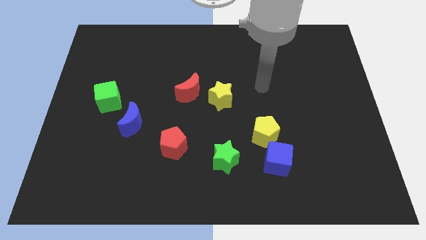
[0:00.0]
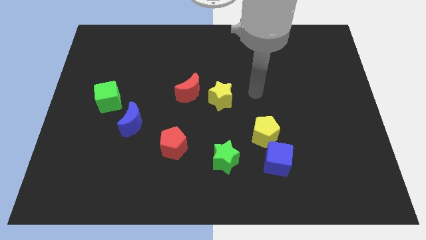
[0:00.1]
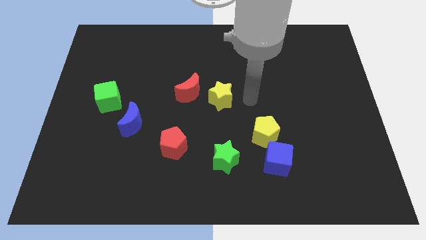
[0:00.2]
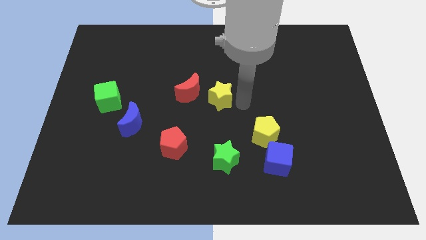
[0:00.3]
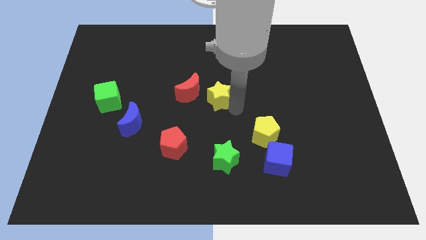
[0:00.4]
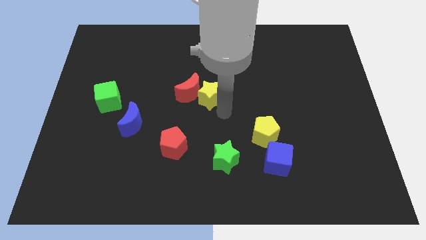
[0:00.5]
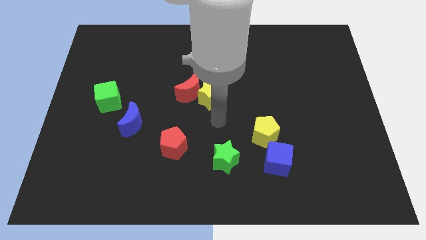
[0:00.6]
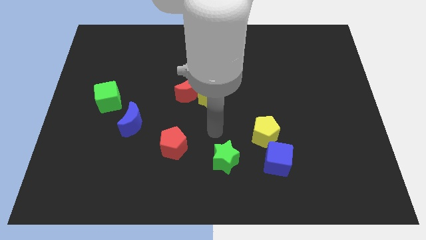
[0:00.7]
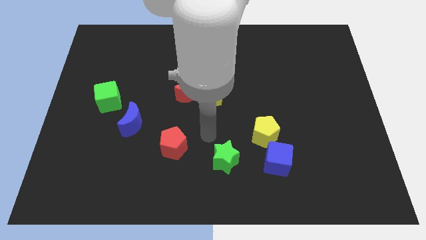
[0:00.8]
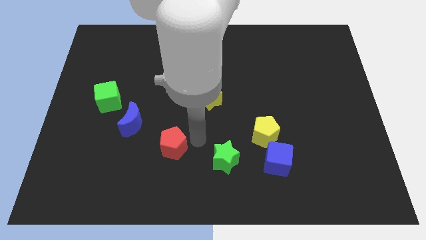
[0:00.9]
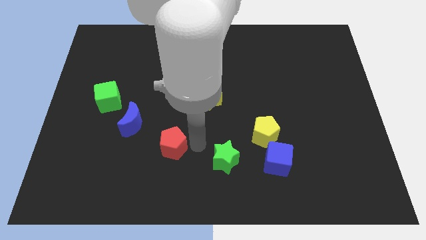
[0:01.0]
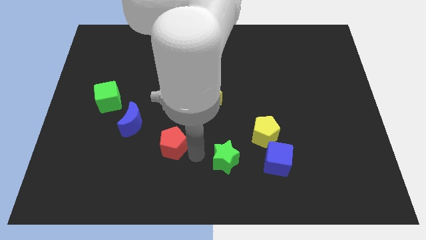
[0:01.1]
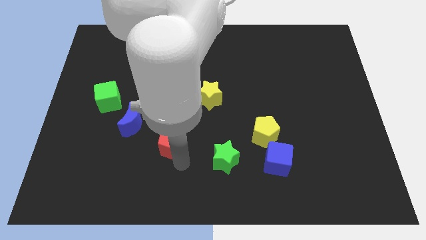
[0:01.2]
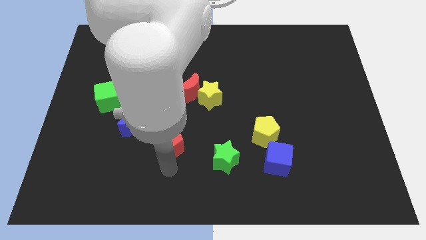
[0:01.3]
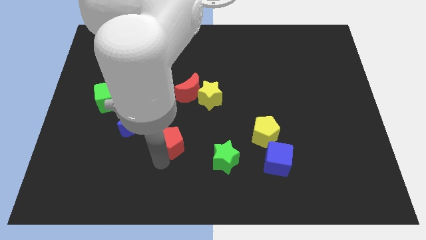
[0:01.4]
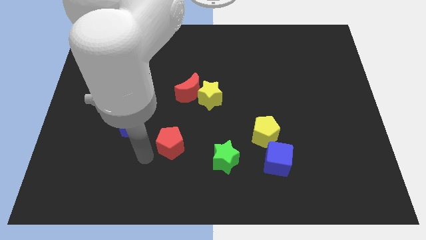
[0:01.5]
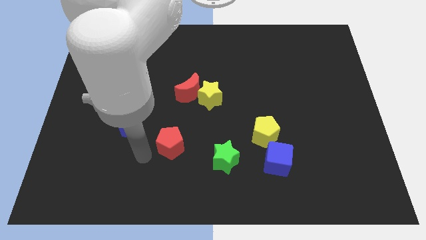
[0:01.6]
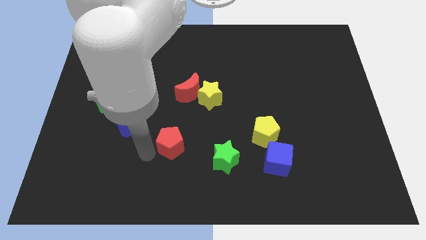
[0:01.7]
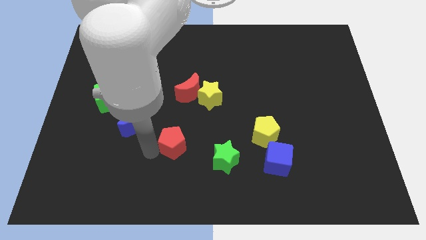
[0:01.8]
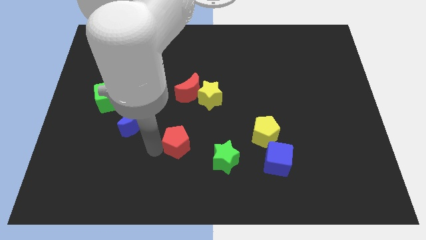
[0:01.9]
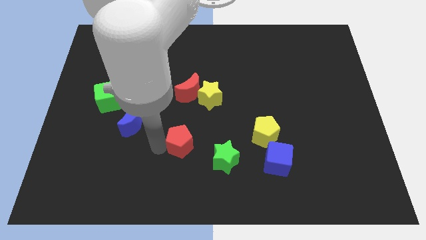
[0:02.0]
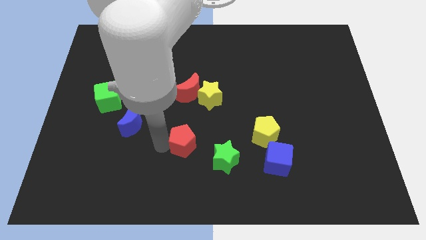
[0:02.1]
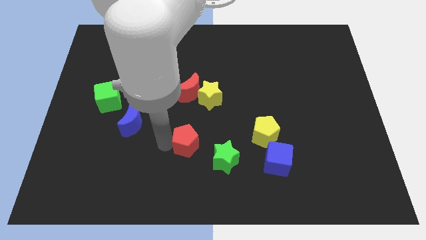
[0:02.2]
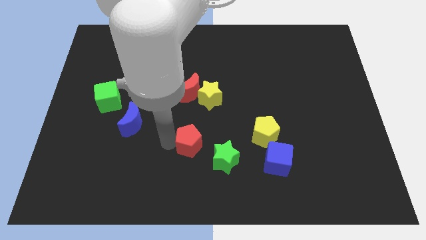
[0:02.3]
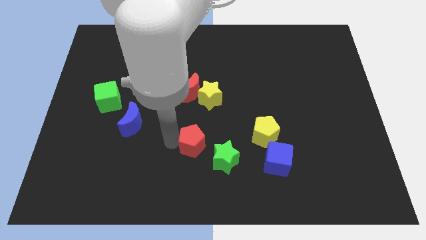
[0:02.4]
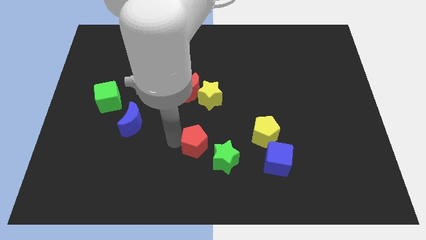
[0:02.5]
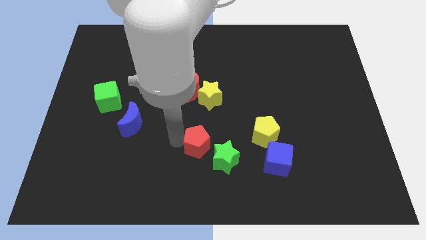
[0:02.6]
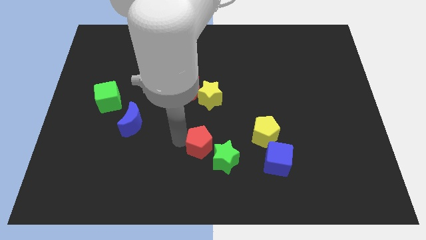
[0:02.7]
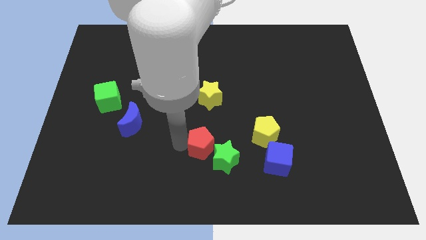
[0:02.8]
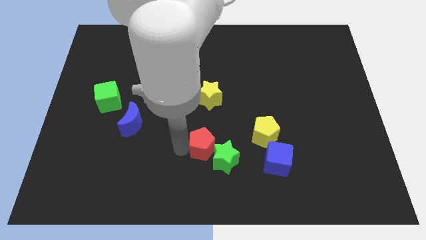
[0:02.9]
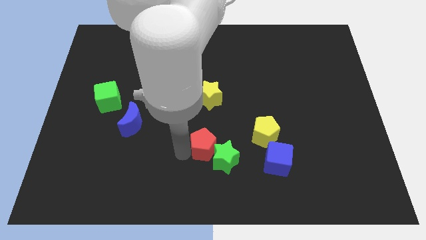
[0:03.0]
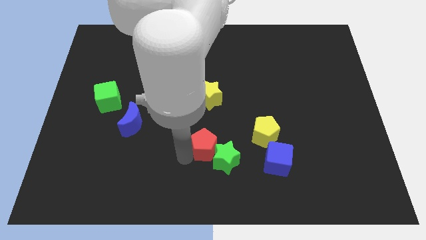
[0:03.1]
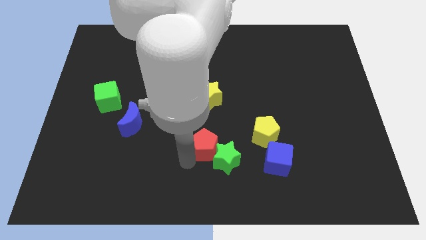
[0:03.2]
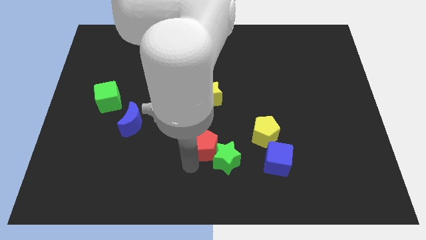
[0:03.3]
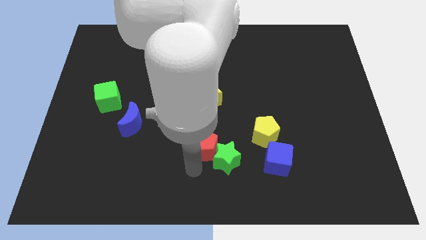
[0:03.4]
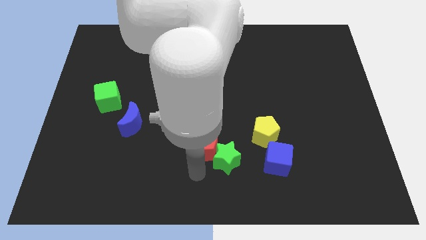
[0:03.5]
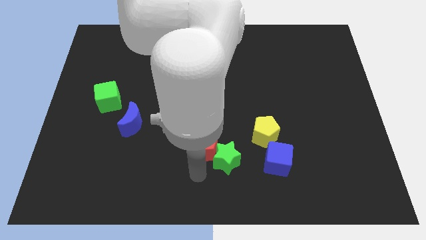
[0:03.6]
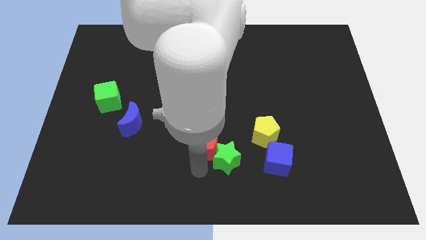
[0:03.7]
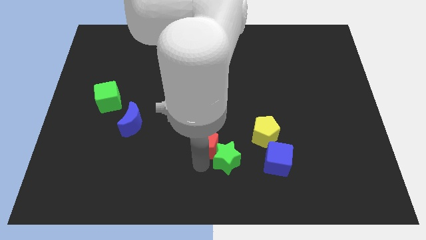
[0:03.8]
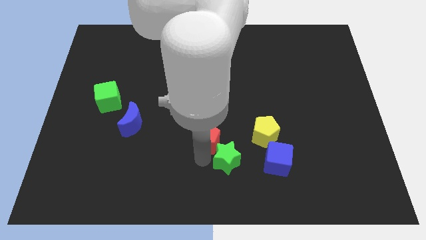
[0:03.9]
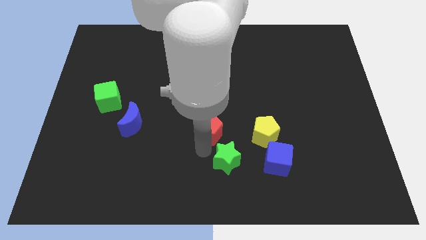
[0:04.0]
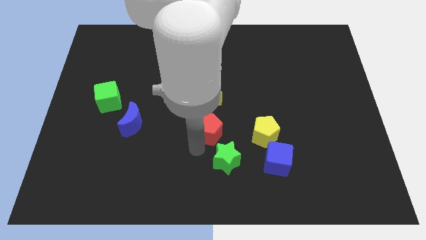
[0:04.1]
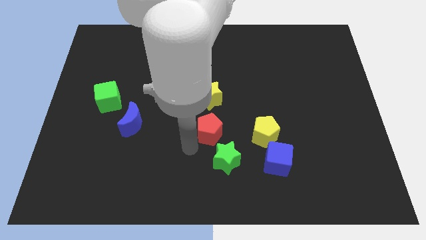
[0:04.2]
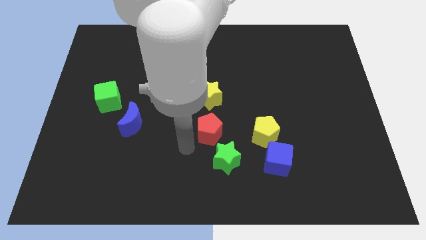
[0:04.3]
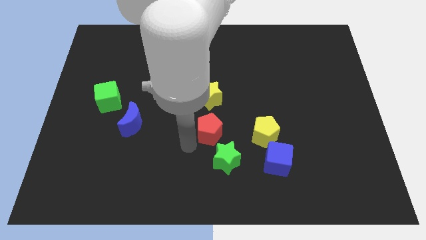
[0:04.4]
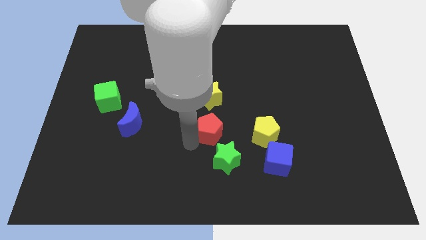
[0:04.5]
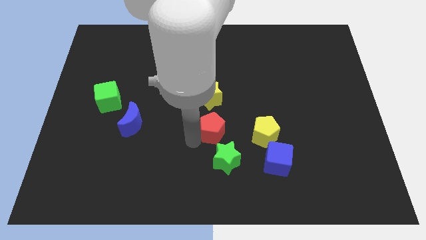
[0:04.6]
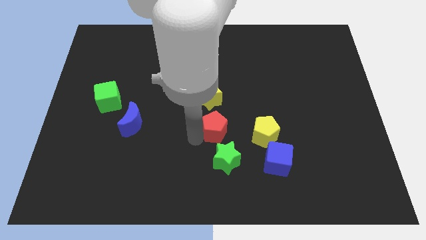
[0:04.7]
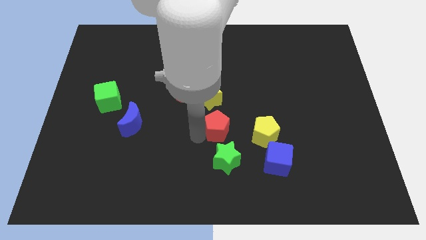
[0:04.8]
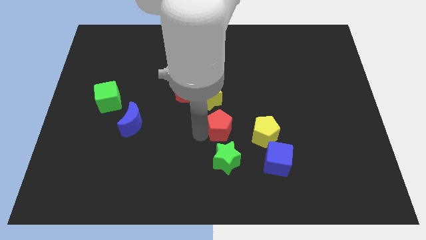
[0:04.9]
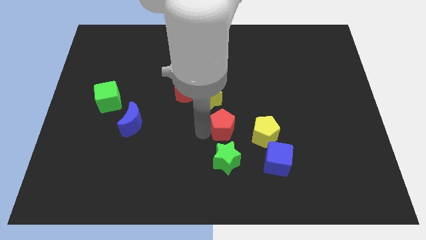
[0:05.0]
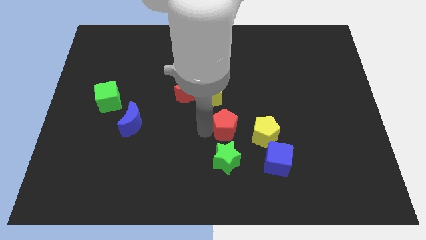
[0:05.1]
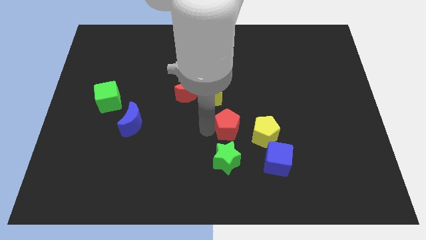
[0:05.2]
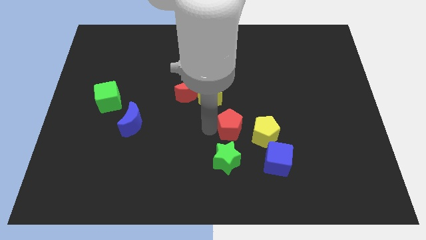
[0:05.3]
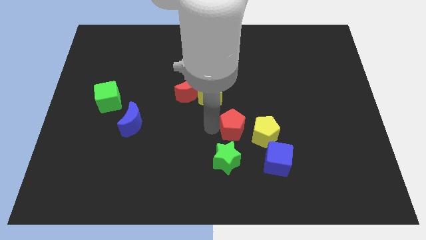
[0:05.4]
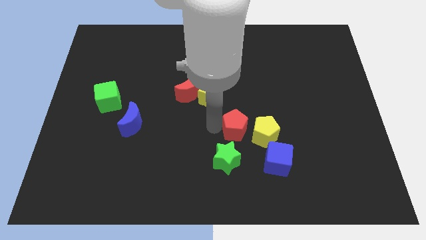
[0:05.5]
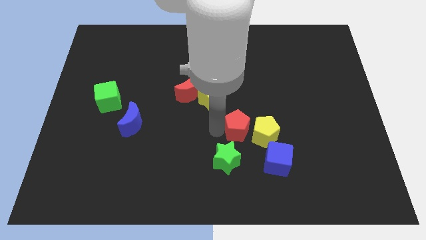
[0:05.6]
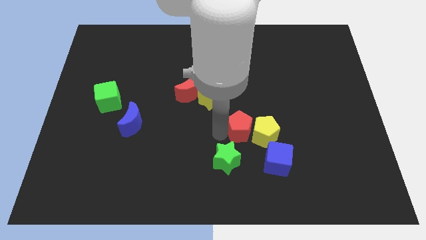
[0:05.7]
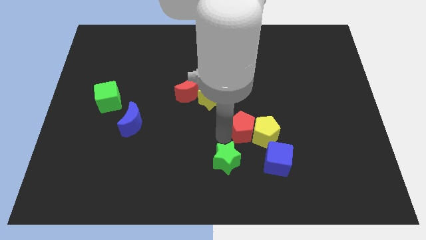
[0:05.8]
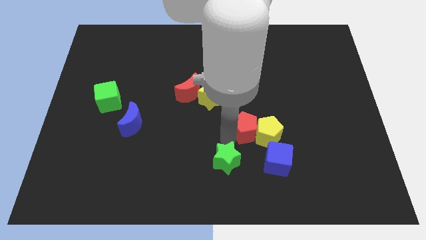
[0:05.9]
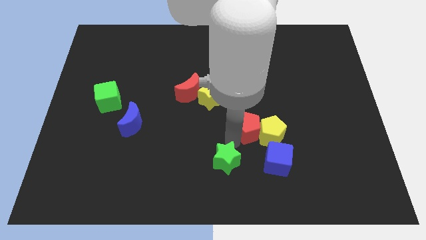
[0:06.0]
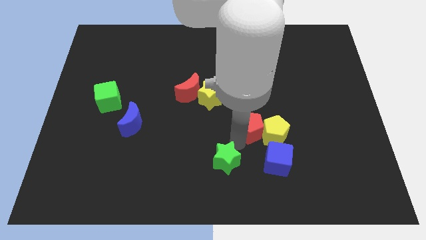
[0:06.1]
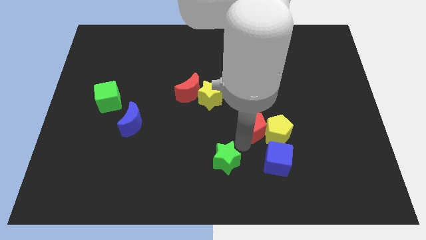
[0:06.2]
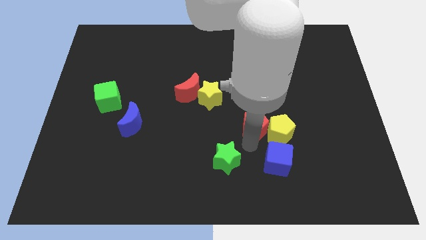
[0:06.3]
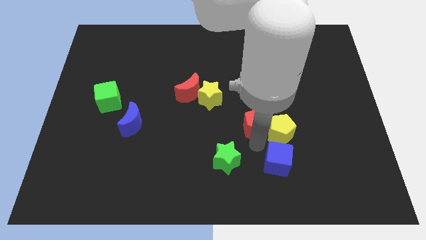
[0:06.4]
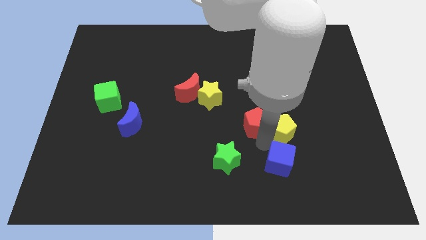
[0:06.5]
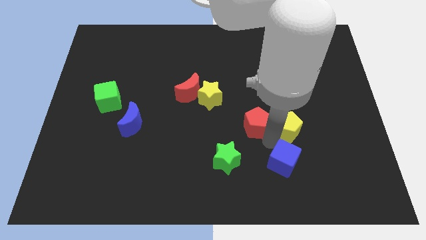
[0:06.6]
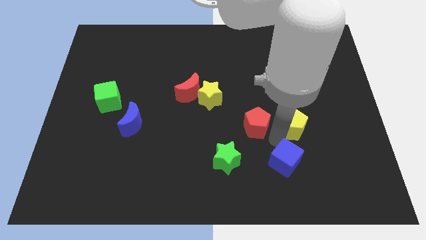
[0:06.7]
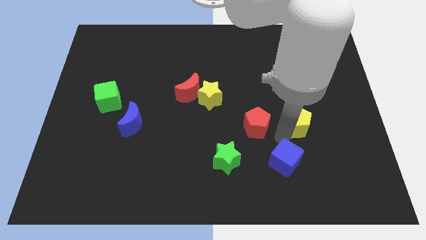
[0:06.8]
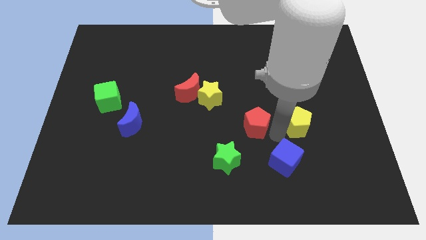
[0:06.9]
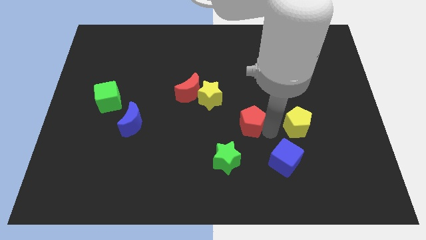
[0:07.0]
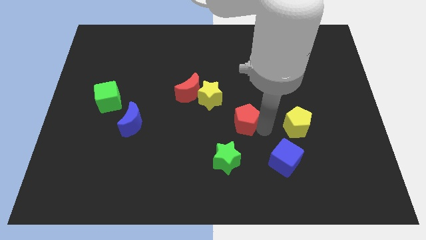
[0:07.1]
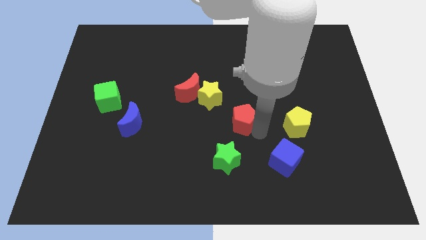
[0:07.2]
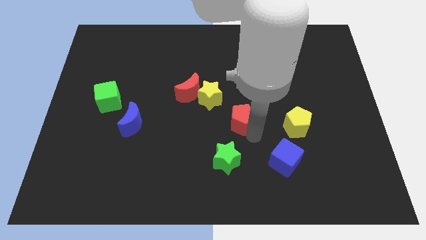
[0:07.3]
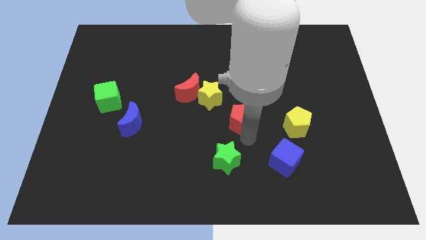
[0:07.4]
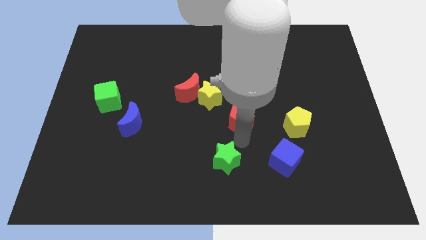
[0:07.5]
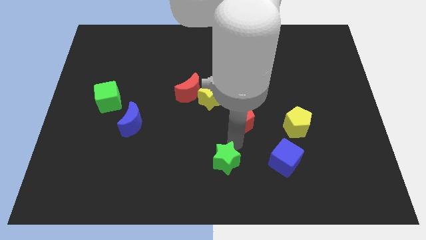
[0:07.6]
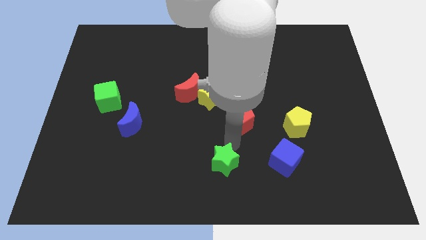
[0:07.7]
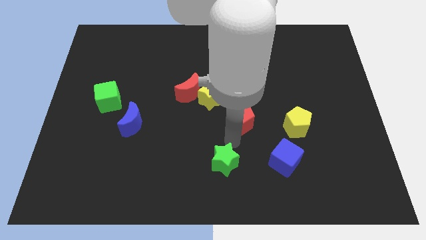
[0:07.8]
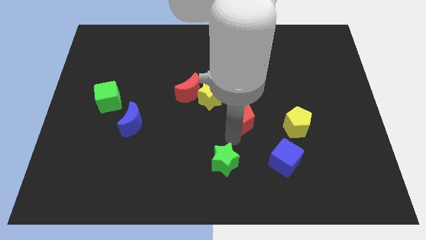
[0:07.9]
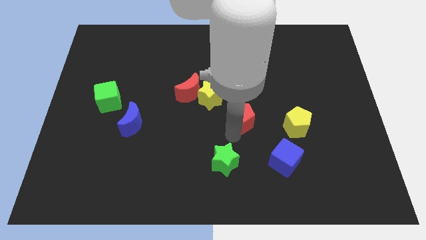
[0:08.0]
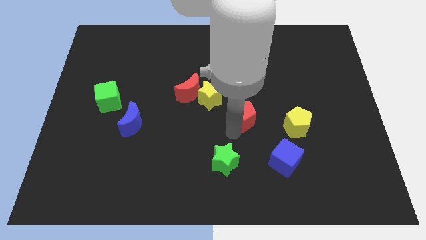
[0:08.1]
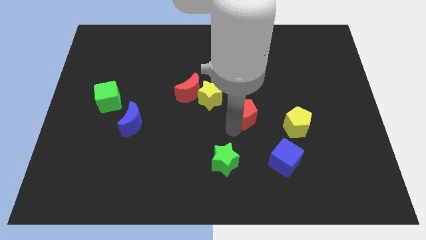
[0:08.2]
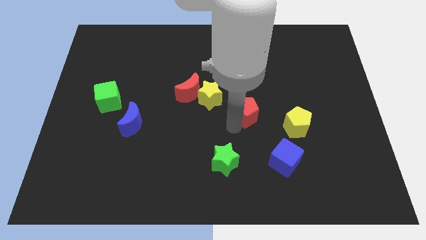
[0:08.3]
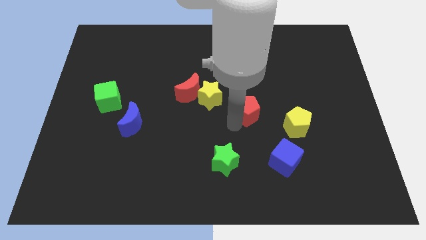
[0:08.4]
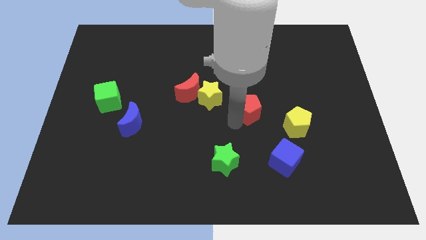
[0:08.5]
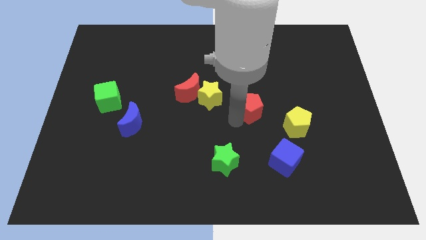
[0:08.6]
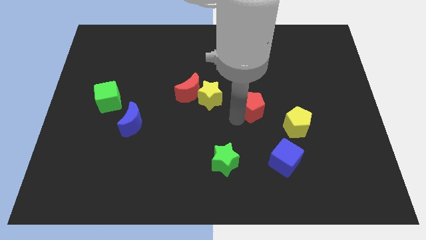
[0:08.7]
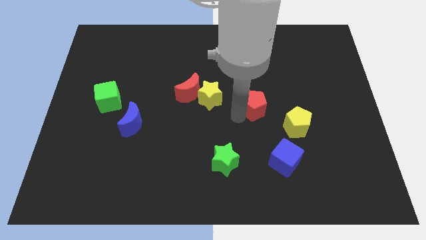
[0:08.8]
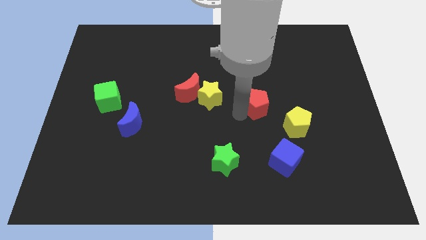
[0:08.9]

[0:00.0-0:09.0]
move the red pentagon diagonally upwards and to the right
